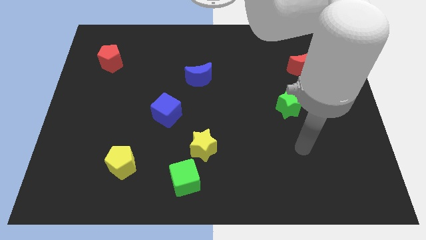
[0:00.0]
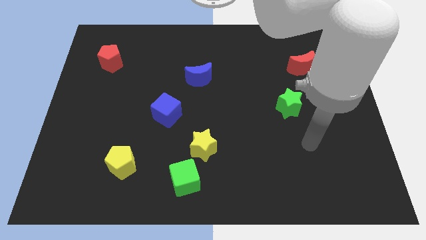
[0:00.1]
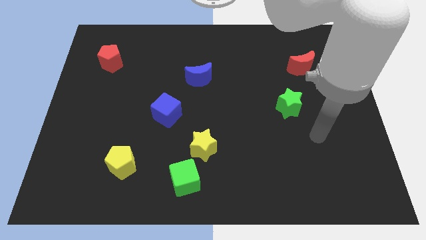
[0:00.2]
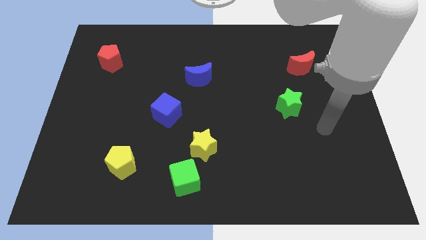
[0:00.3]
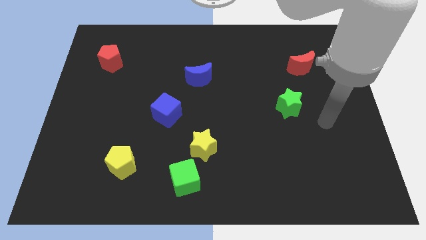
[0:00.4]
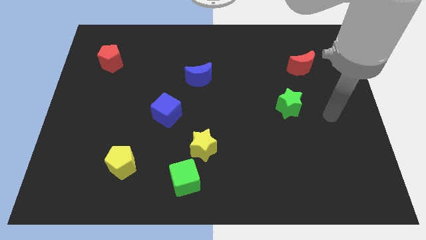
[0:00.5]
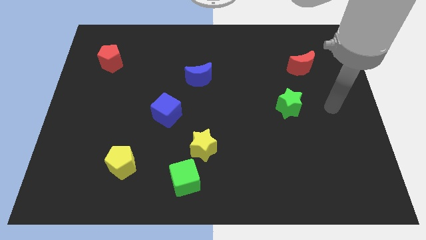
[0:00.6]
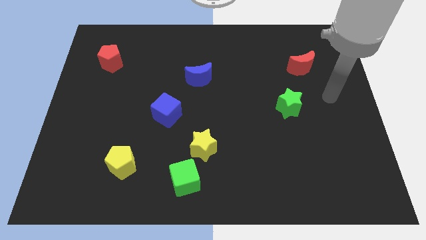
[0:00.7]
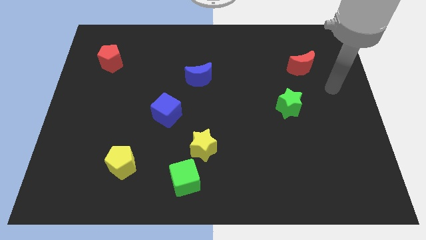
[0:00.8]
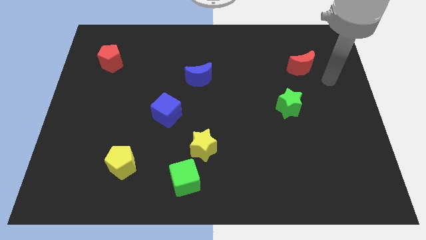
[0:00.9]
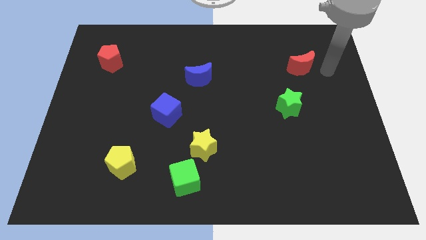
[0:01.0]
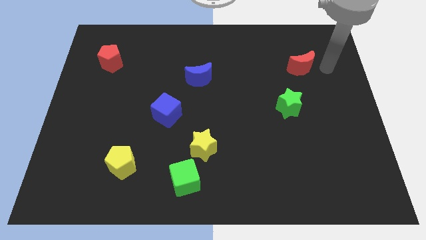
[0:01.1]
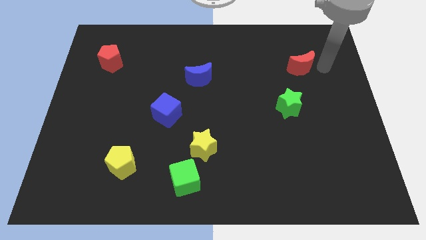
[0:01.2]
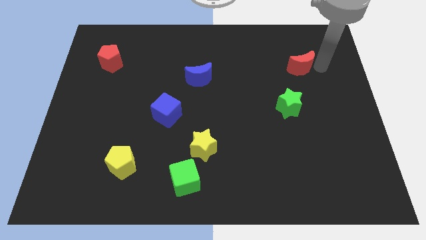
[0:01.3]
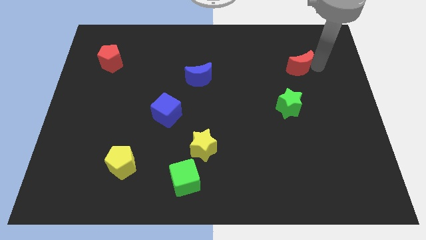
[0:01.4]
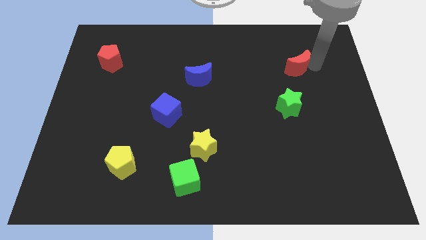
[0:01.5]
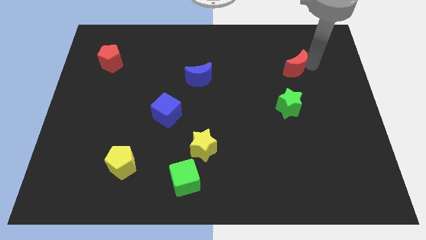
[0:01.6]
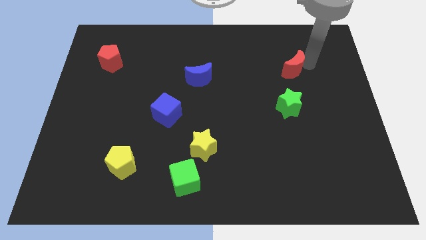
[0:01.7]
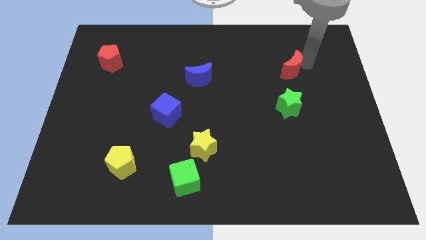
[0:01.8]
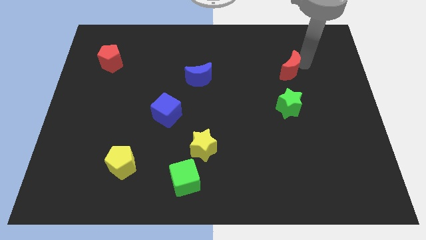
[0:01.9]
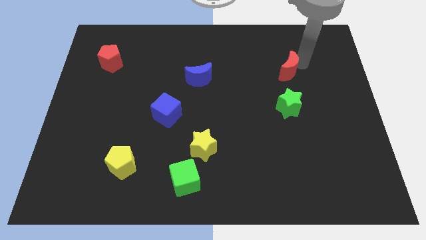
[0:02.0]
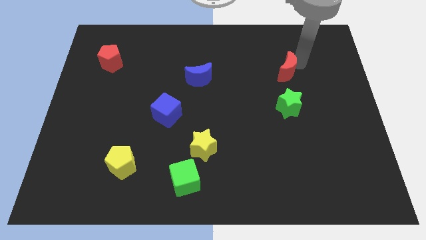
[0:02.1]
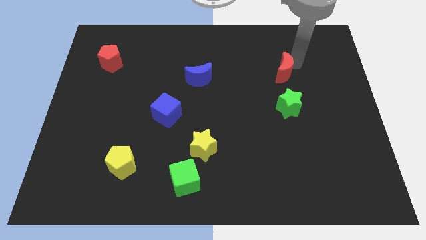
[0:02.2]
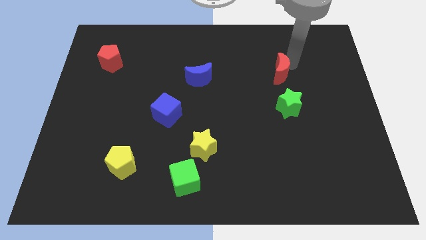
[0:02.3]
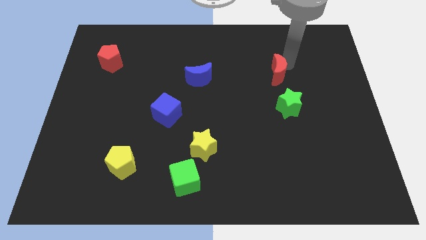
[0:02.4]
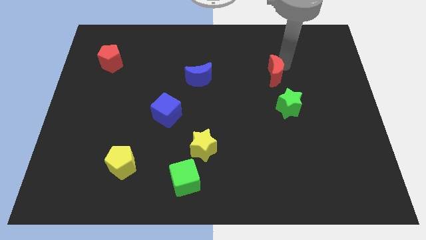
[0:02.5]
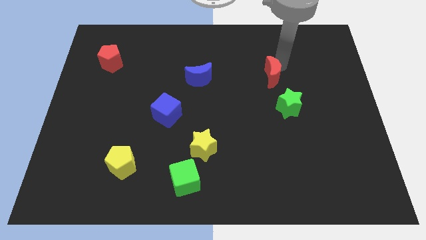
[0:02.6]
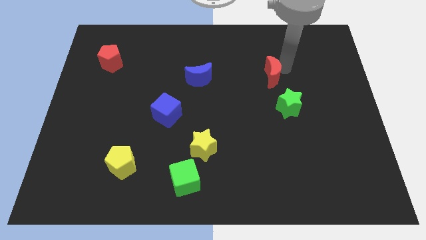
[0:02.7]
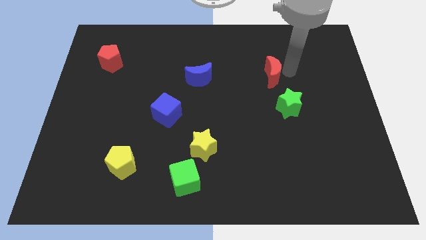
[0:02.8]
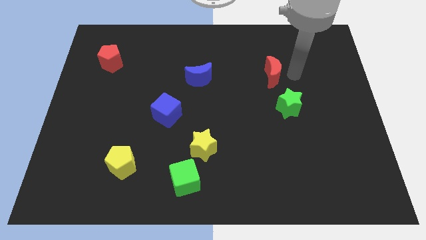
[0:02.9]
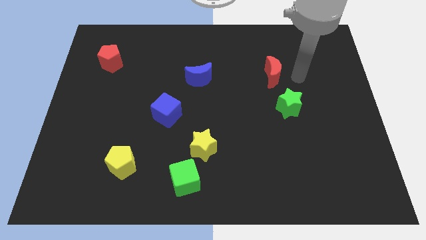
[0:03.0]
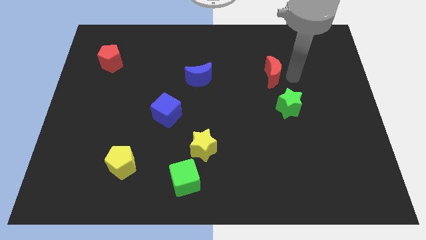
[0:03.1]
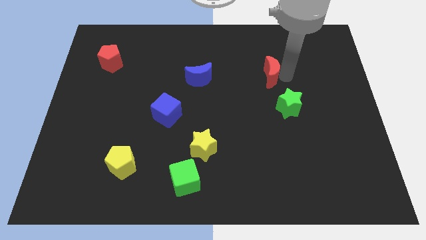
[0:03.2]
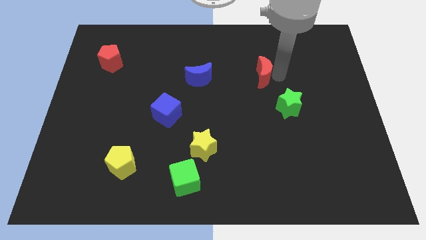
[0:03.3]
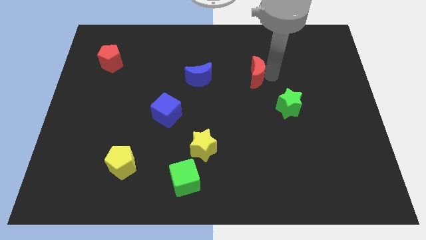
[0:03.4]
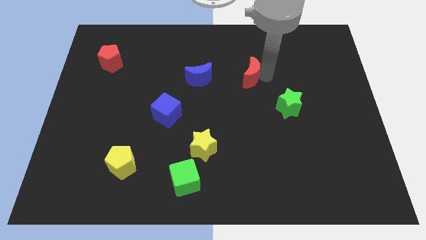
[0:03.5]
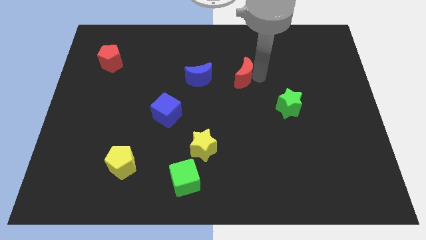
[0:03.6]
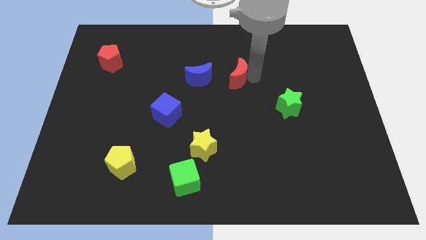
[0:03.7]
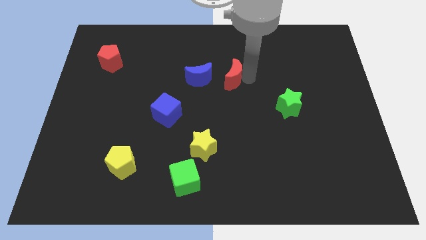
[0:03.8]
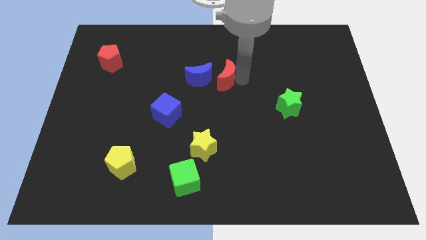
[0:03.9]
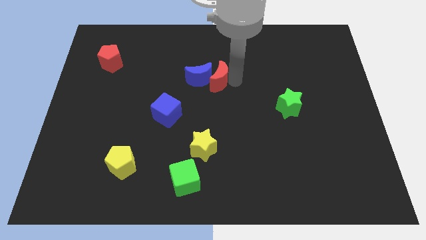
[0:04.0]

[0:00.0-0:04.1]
move the red moon to the left

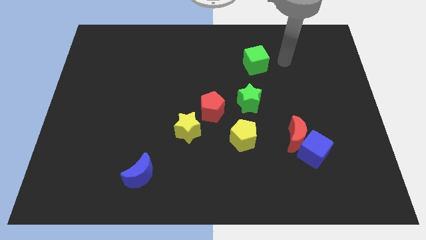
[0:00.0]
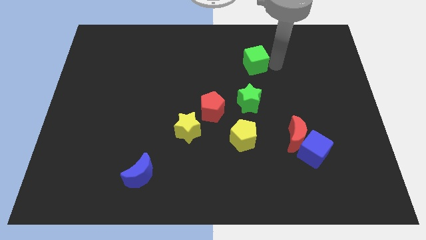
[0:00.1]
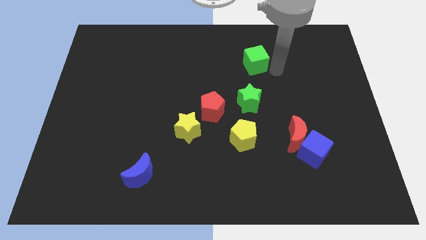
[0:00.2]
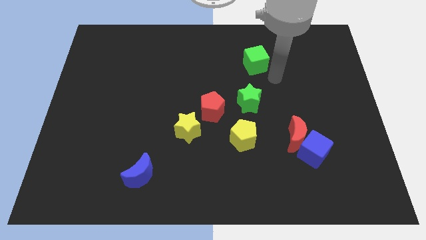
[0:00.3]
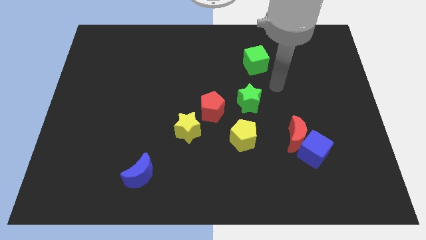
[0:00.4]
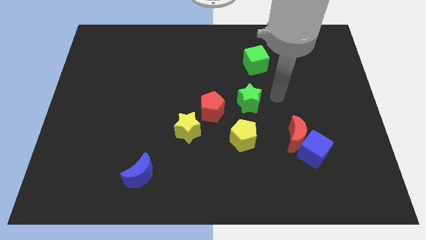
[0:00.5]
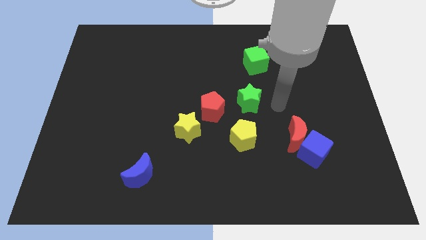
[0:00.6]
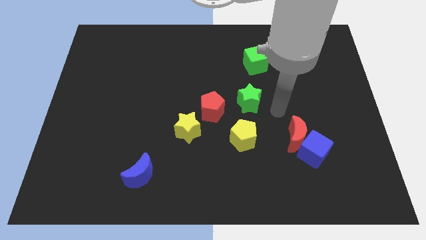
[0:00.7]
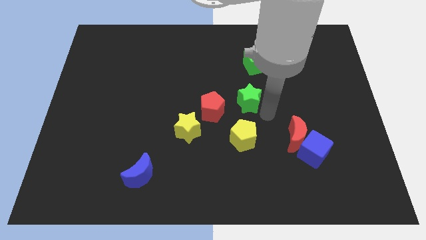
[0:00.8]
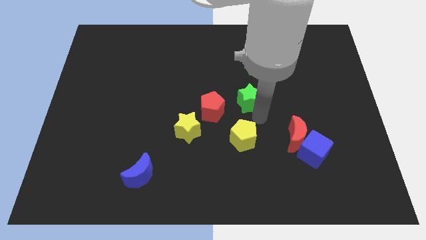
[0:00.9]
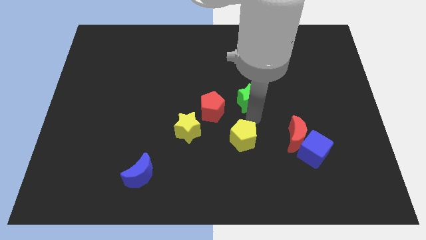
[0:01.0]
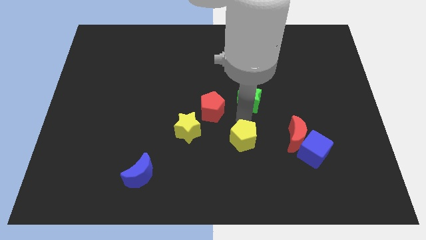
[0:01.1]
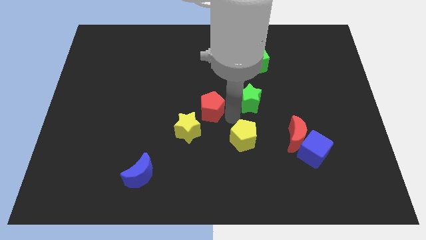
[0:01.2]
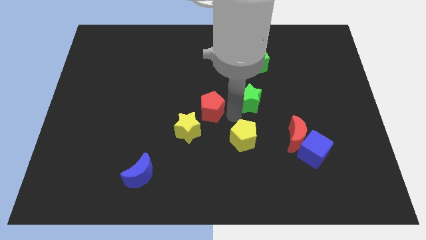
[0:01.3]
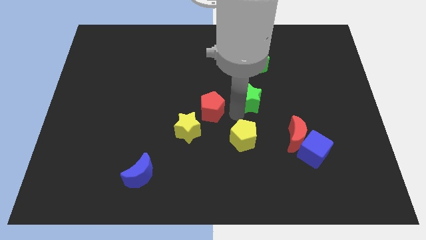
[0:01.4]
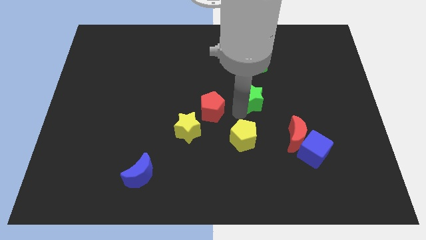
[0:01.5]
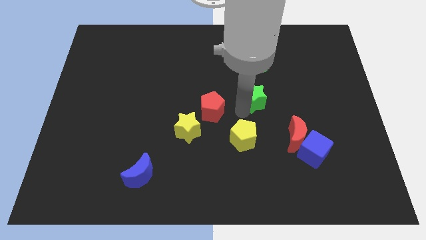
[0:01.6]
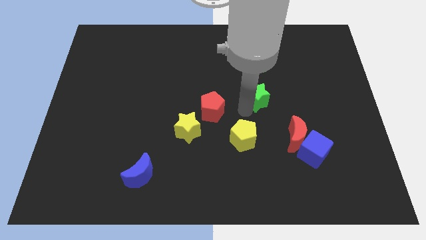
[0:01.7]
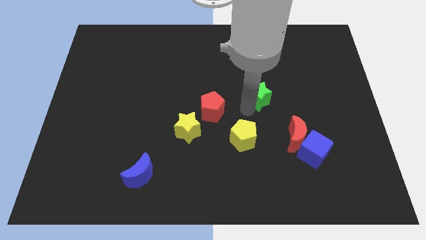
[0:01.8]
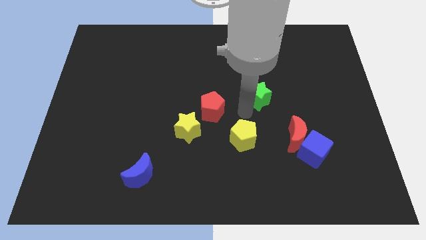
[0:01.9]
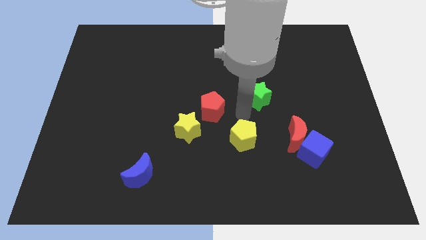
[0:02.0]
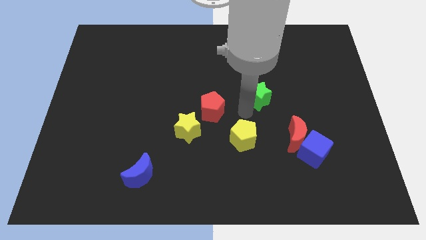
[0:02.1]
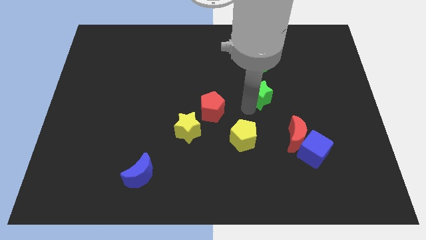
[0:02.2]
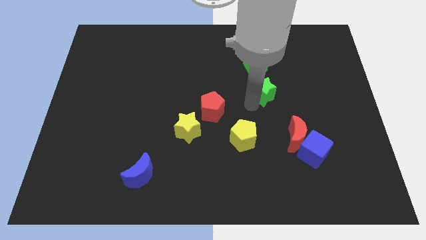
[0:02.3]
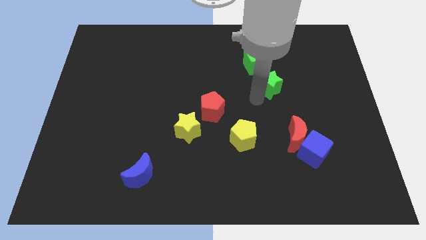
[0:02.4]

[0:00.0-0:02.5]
slightly slide the green star diagonally upwards and to the right

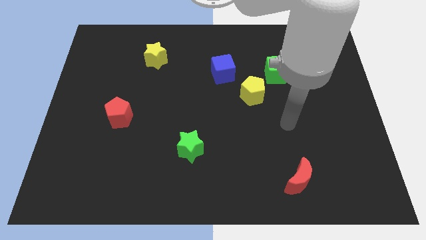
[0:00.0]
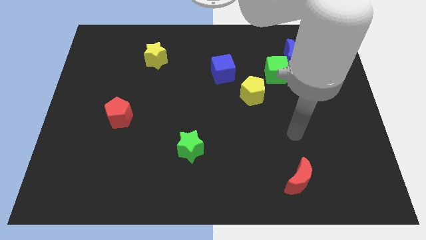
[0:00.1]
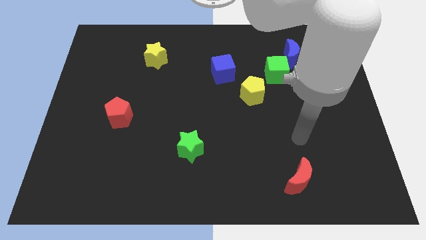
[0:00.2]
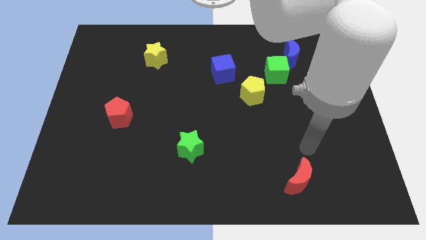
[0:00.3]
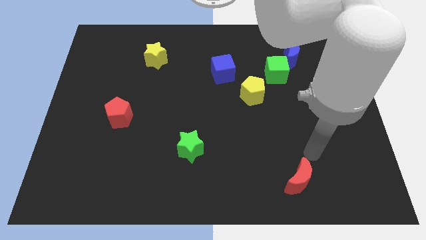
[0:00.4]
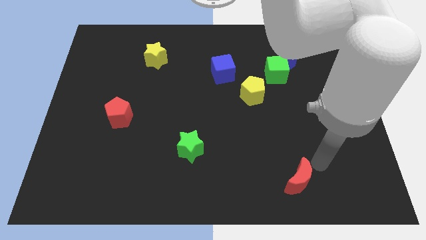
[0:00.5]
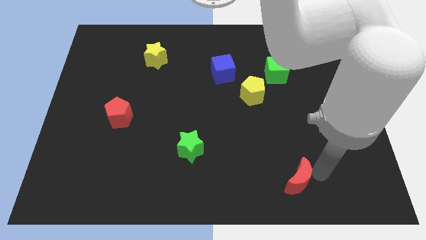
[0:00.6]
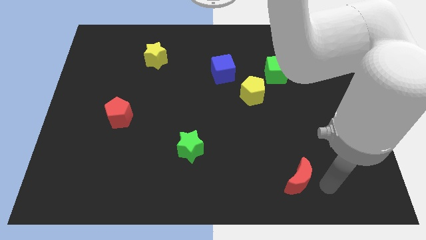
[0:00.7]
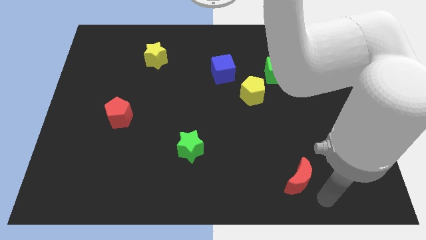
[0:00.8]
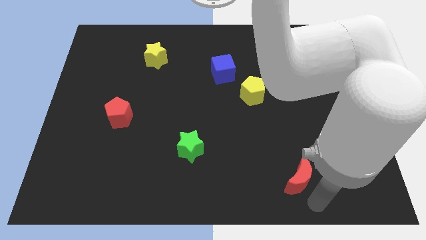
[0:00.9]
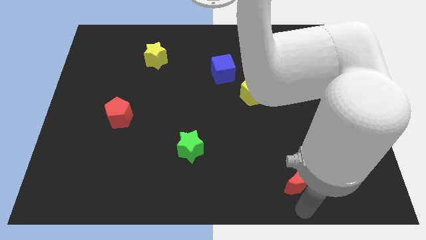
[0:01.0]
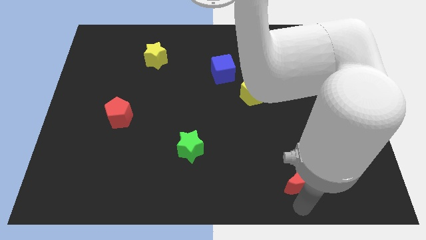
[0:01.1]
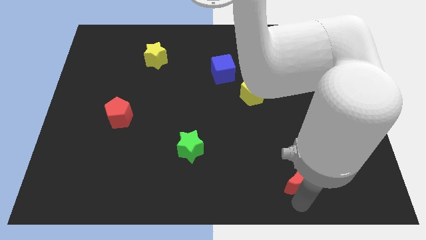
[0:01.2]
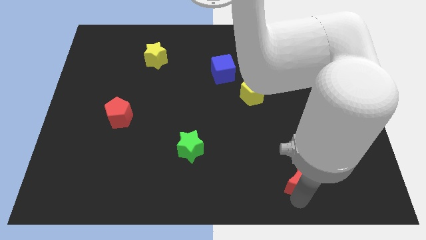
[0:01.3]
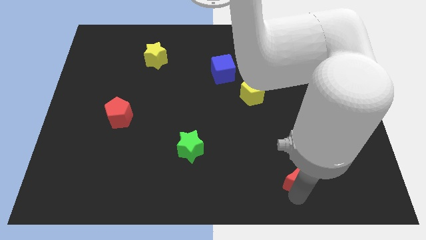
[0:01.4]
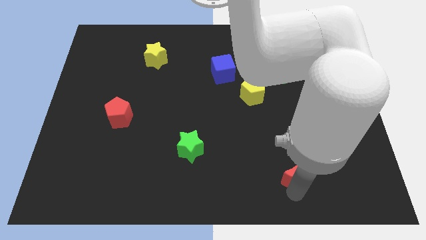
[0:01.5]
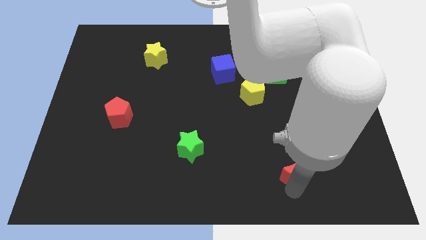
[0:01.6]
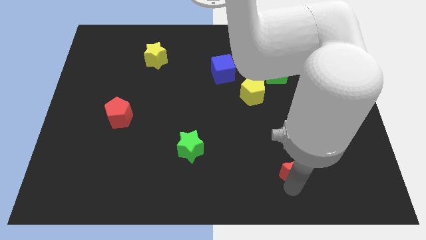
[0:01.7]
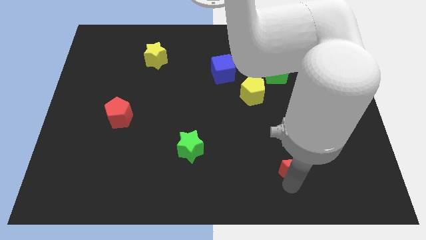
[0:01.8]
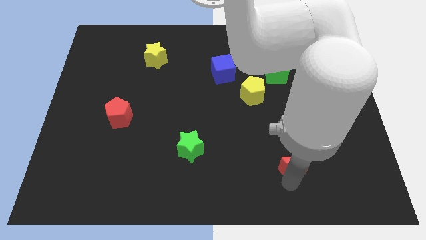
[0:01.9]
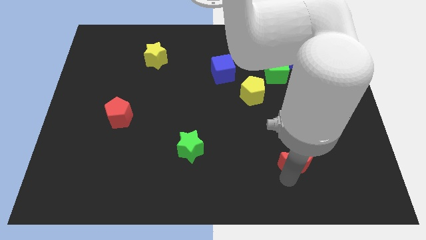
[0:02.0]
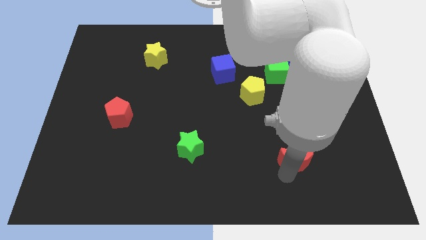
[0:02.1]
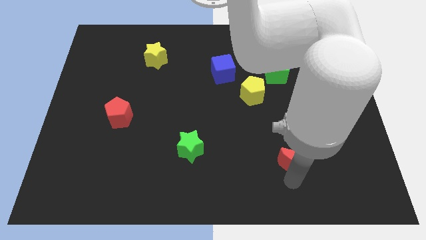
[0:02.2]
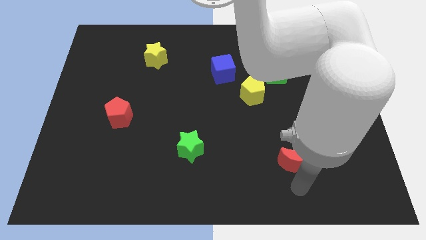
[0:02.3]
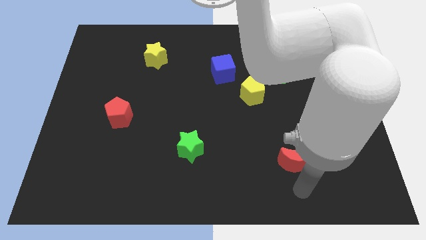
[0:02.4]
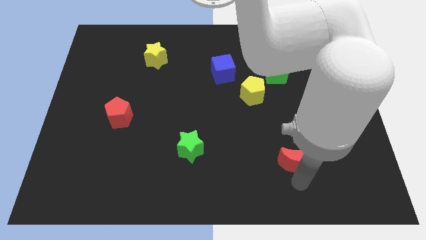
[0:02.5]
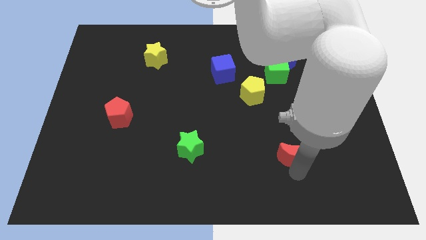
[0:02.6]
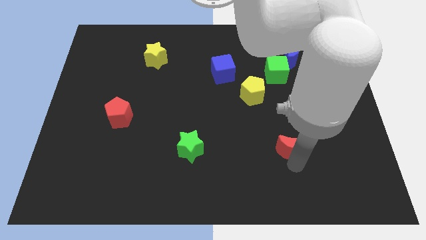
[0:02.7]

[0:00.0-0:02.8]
move the red moon upwards a little
